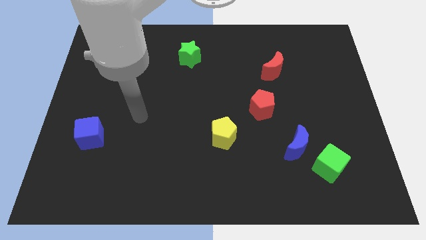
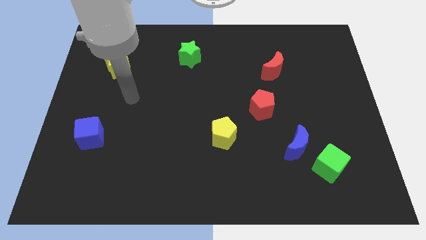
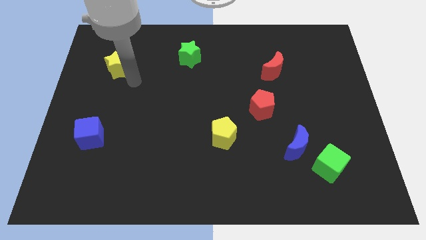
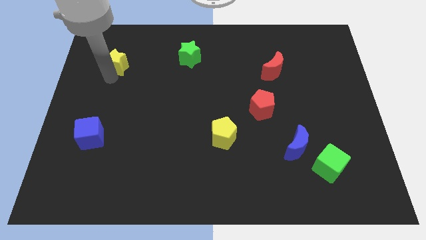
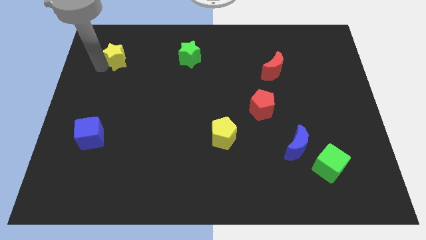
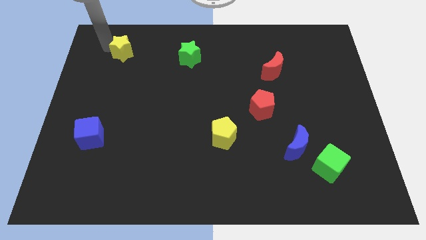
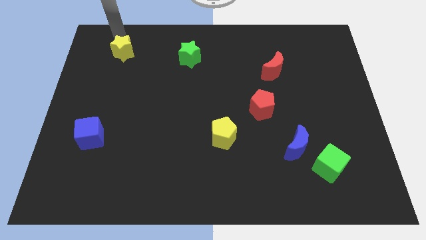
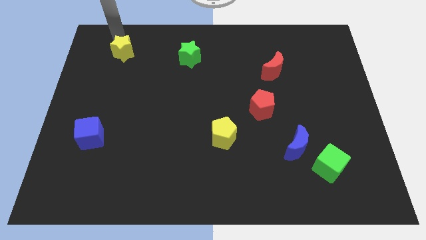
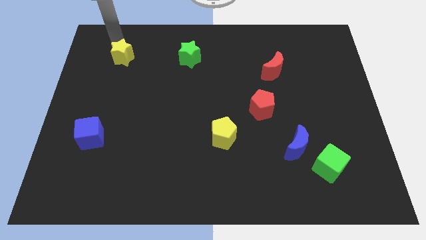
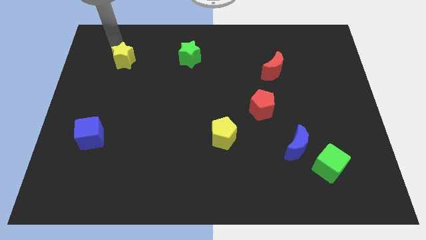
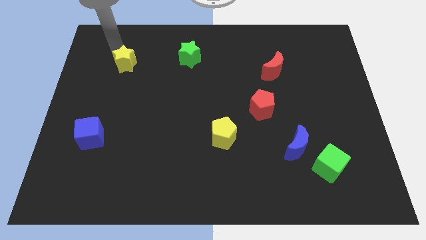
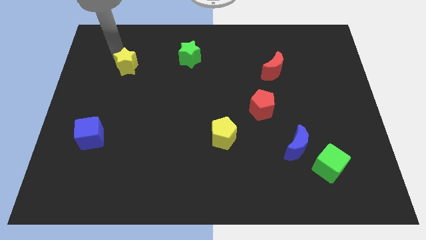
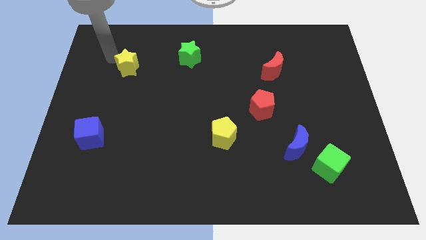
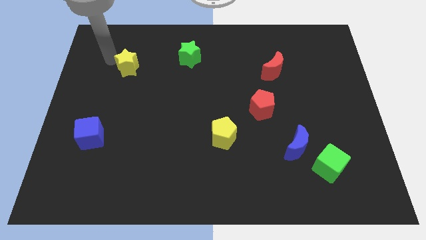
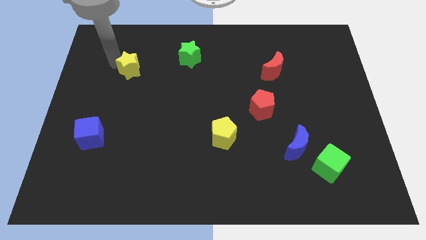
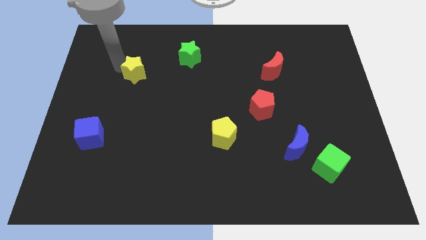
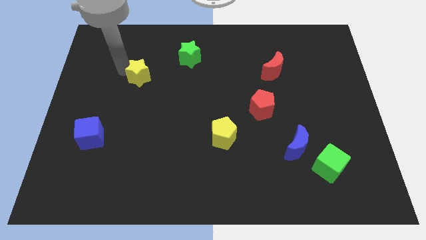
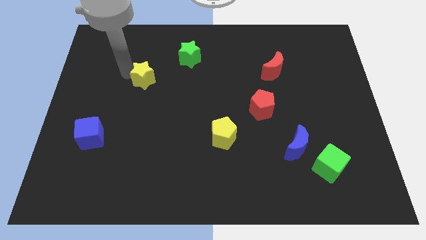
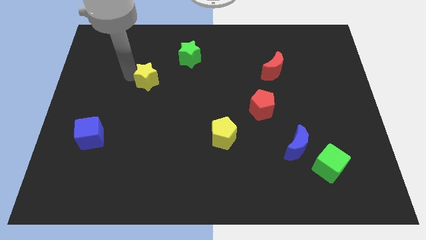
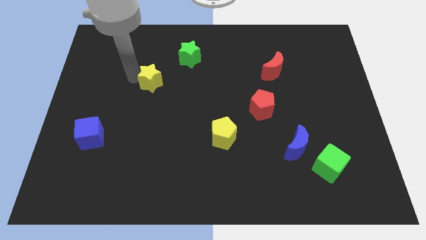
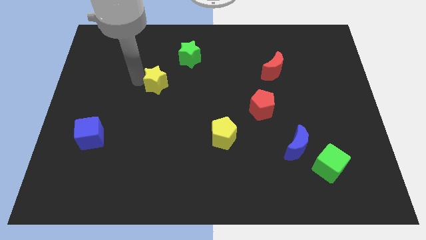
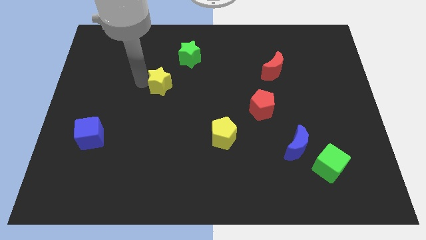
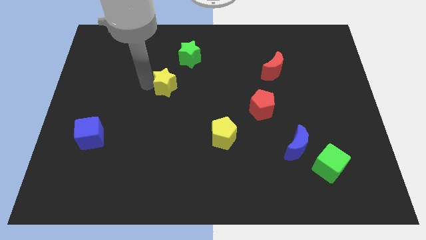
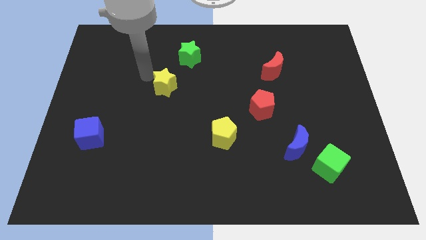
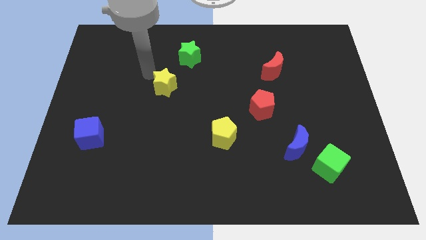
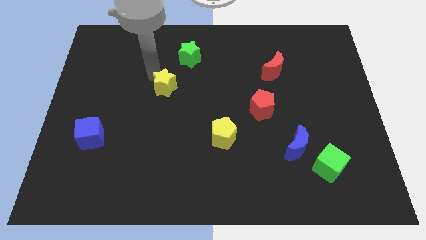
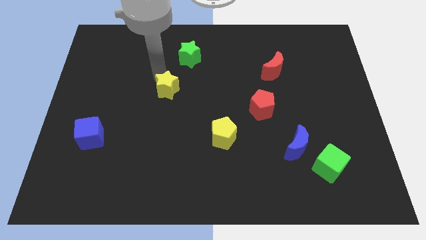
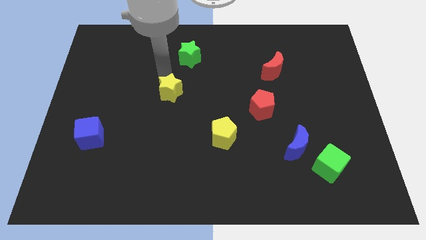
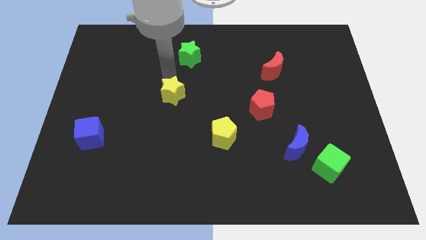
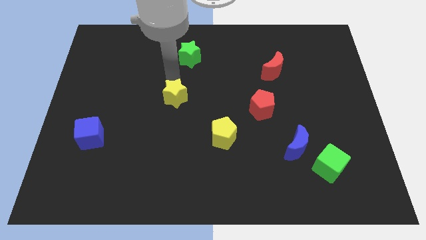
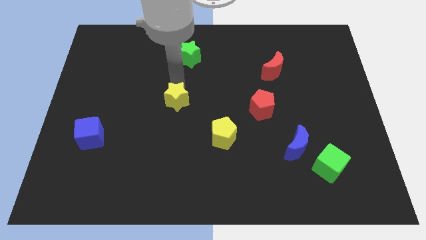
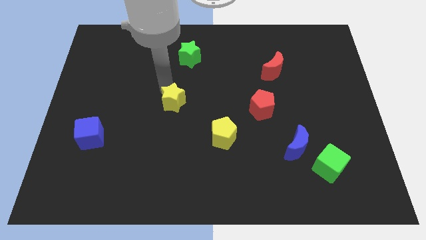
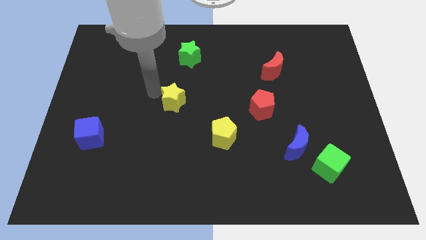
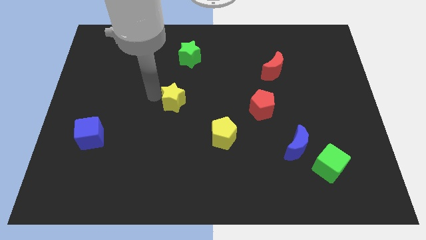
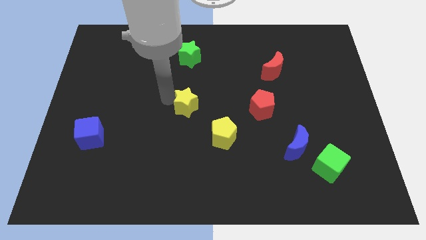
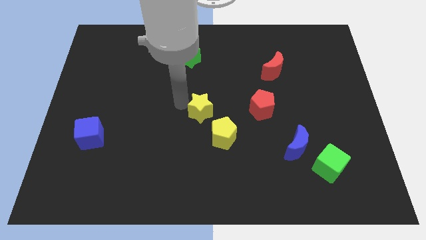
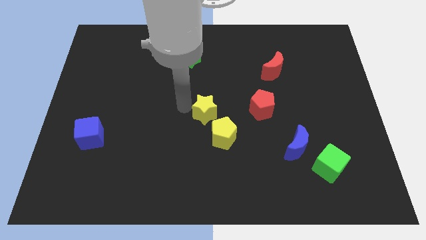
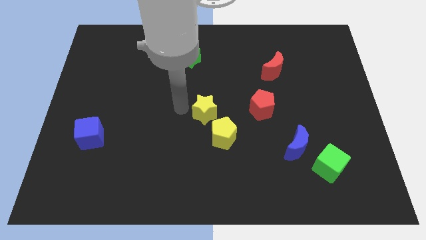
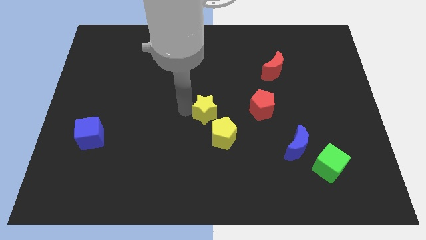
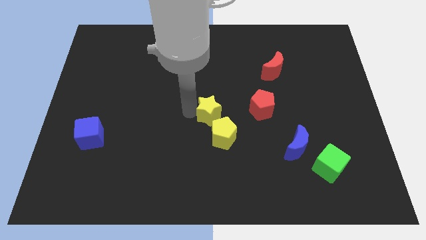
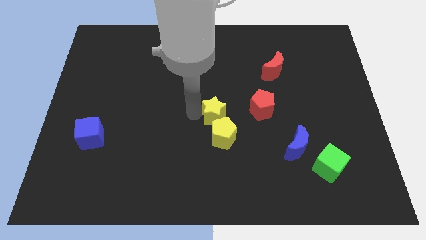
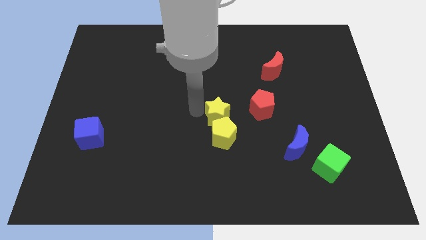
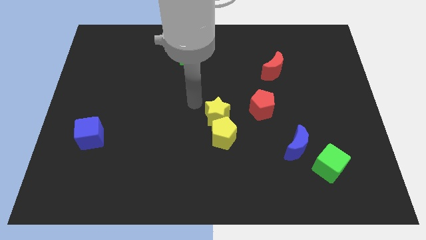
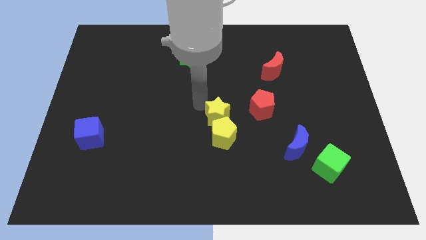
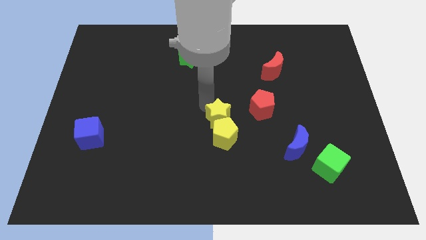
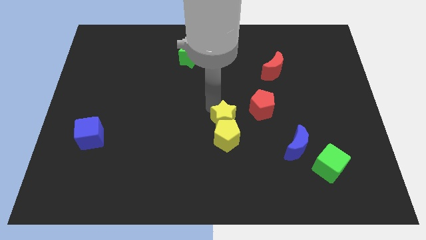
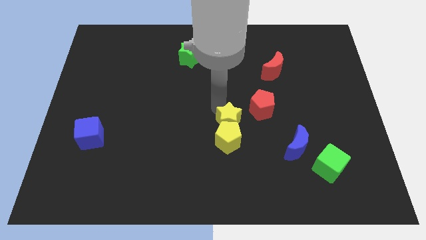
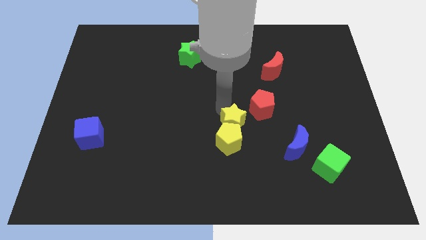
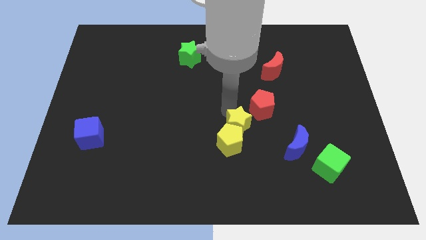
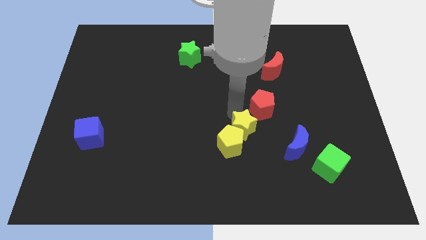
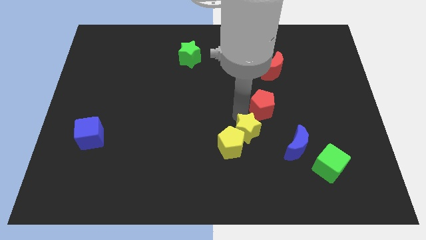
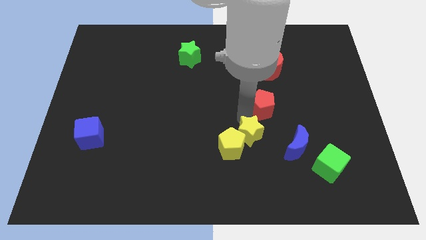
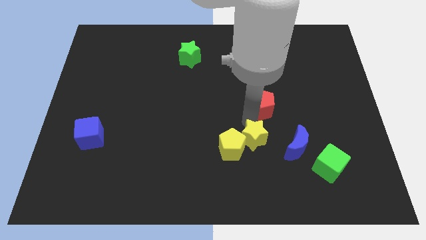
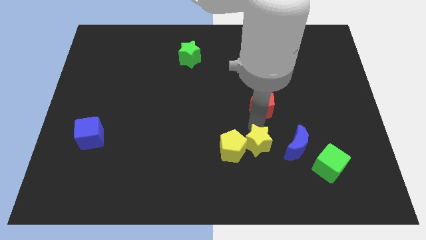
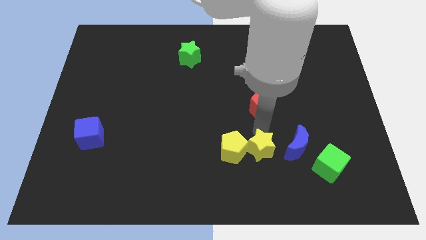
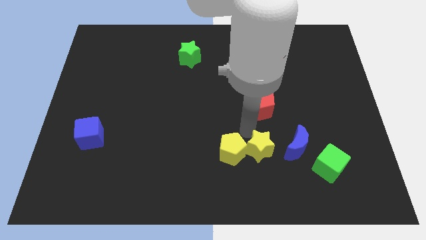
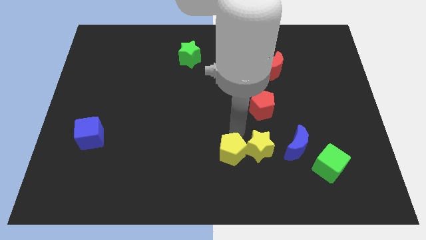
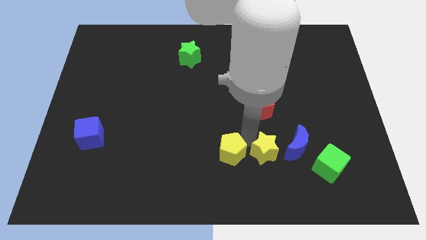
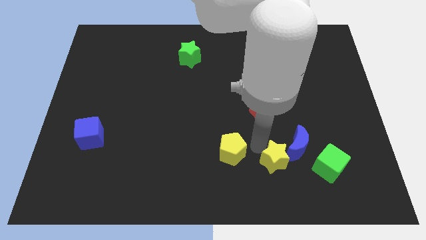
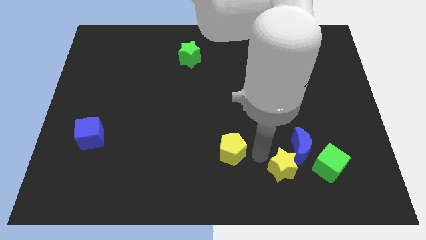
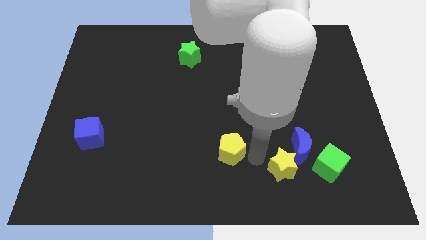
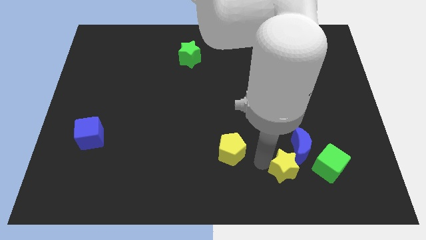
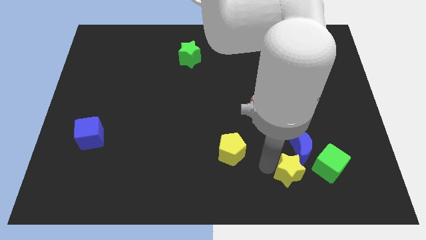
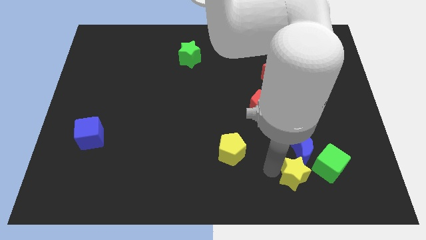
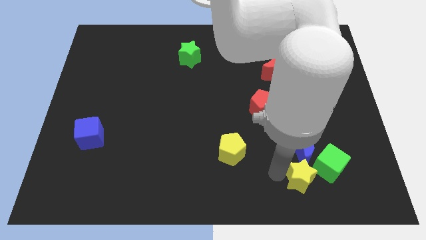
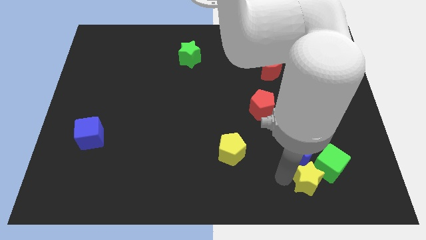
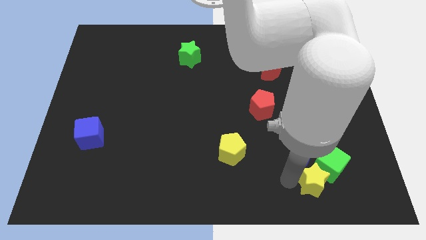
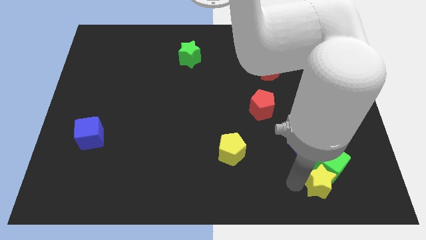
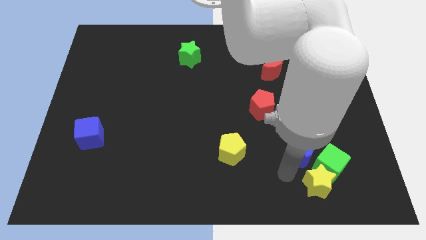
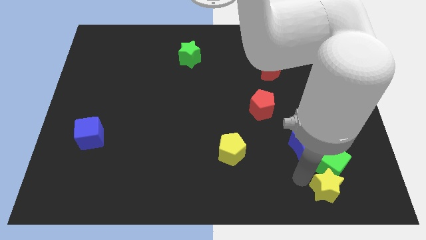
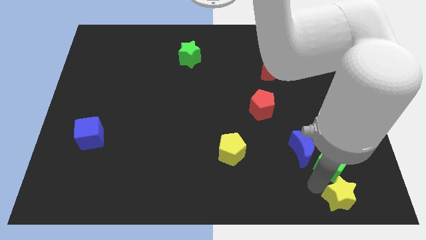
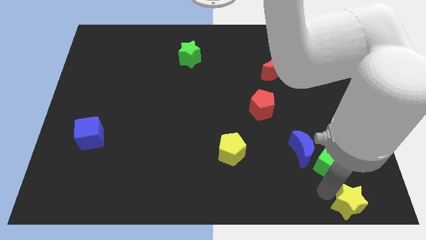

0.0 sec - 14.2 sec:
put the yellow star to the bottom right
